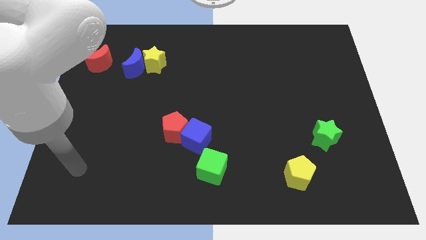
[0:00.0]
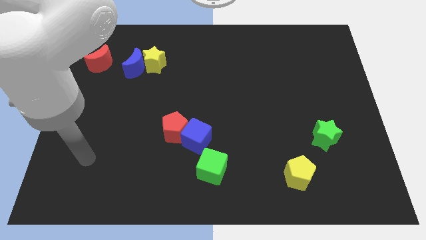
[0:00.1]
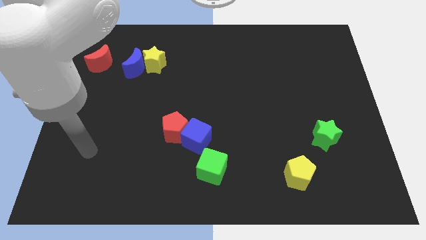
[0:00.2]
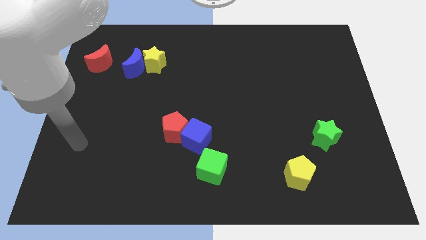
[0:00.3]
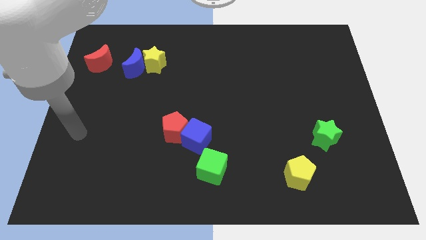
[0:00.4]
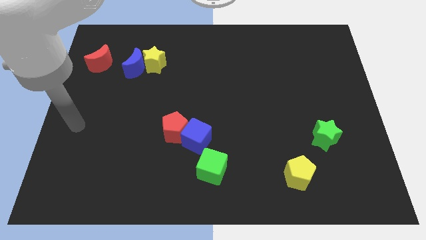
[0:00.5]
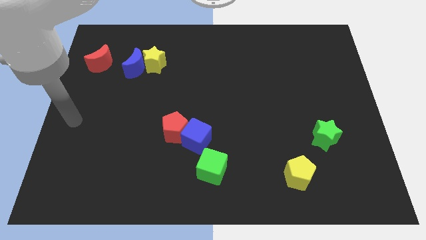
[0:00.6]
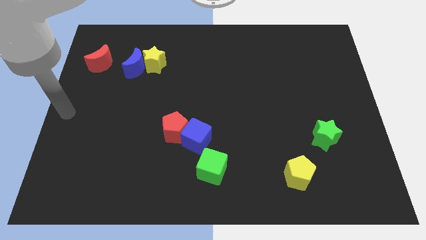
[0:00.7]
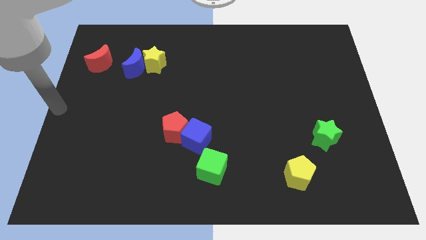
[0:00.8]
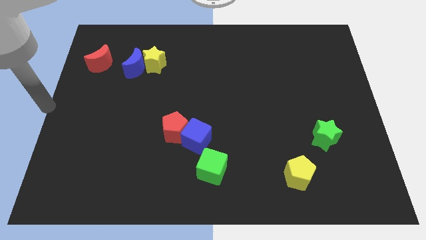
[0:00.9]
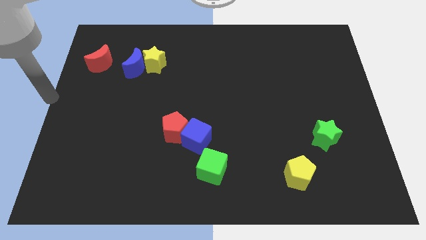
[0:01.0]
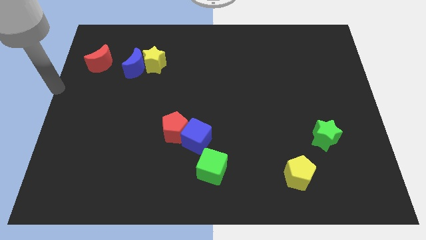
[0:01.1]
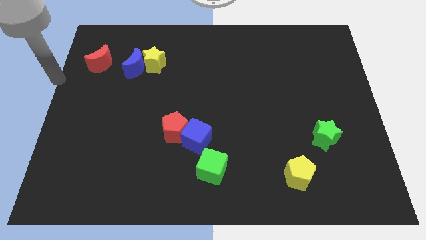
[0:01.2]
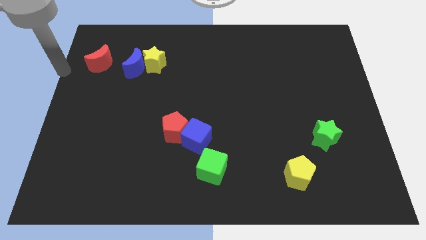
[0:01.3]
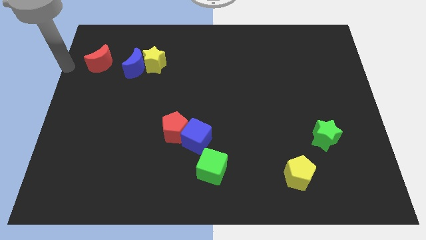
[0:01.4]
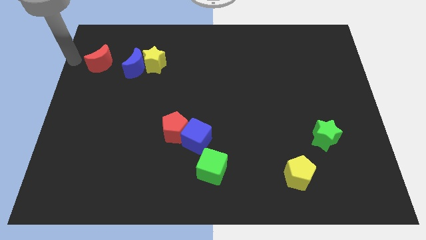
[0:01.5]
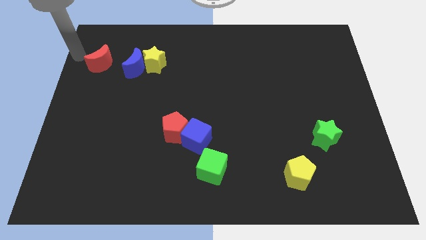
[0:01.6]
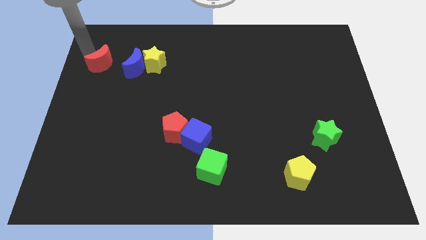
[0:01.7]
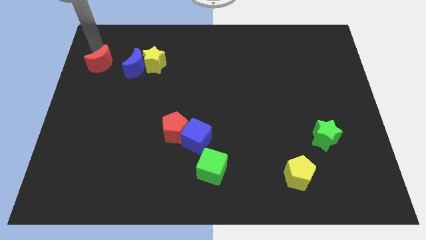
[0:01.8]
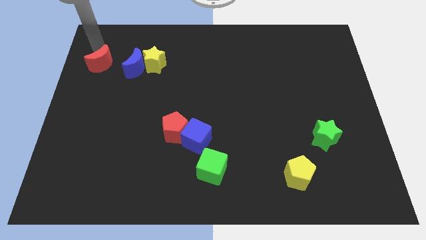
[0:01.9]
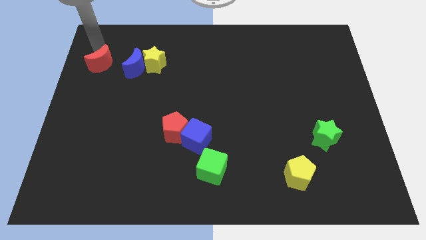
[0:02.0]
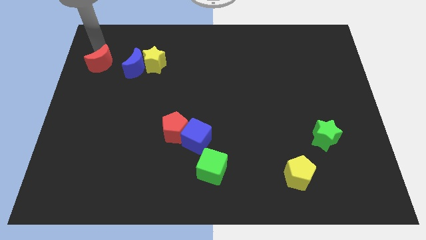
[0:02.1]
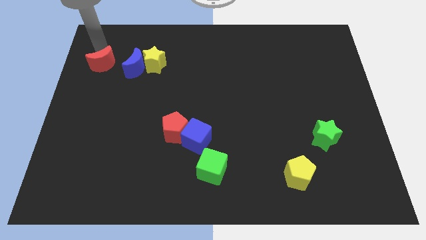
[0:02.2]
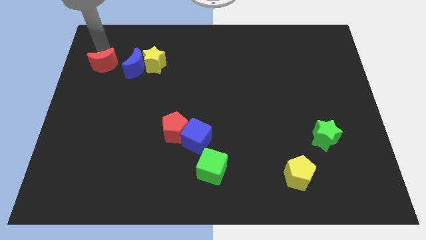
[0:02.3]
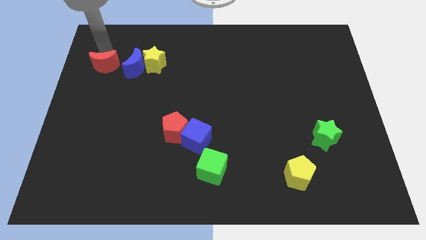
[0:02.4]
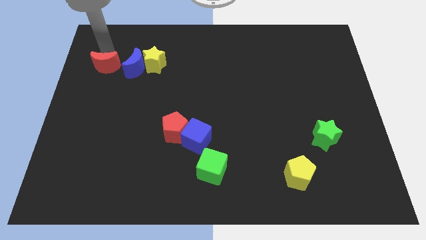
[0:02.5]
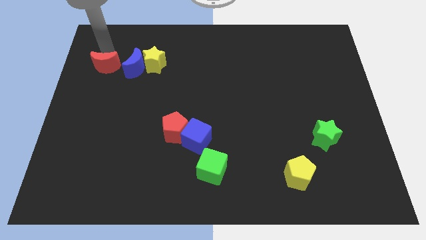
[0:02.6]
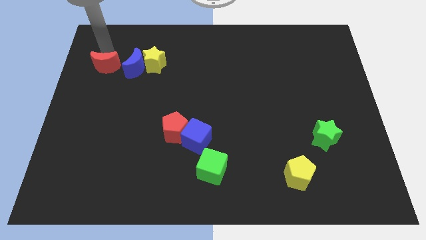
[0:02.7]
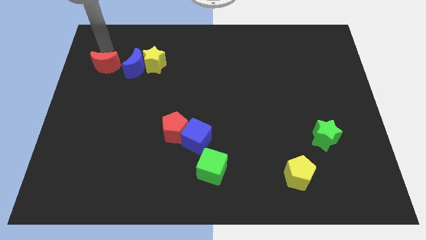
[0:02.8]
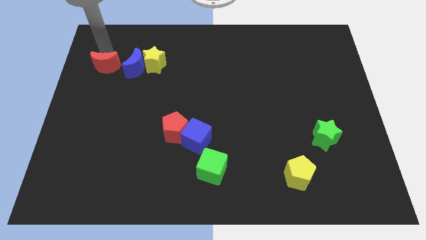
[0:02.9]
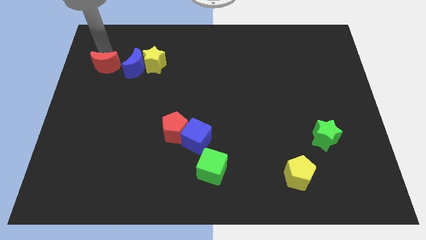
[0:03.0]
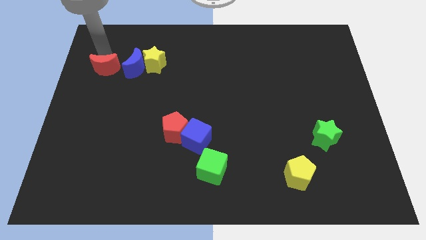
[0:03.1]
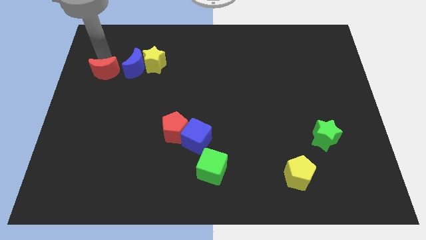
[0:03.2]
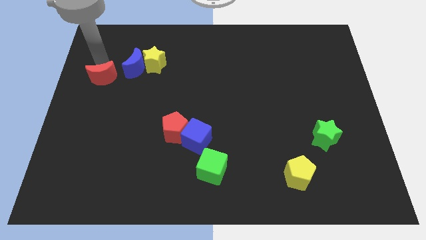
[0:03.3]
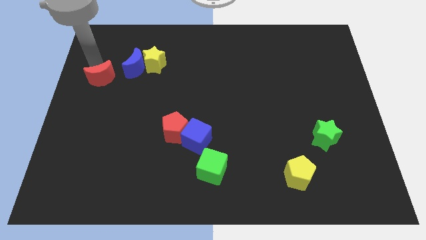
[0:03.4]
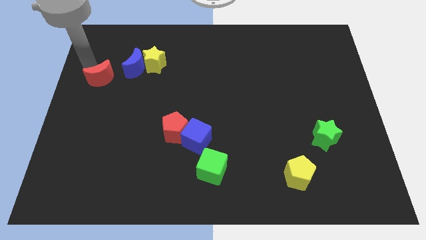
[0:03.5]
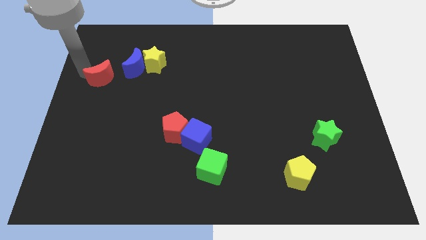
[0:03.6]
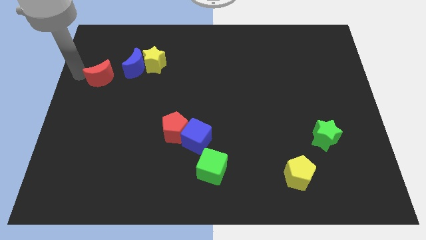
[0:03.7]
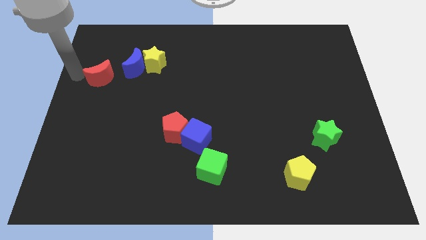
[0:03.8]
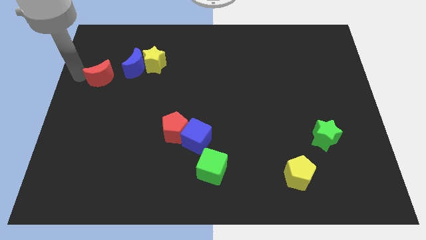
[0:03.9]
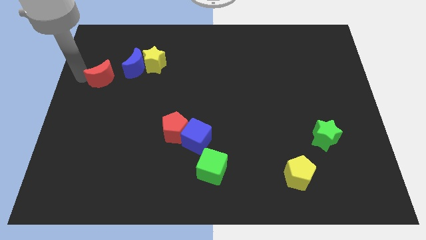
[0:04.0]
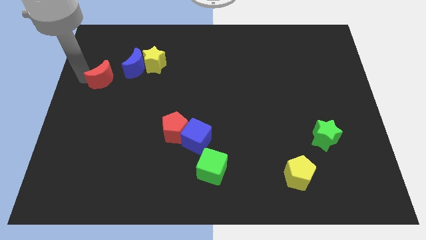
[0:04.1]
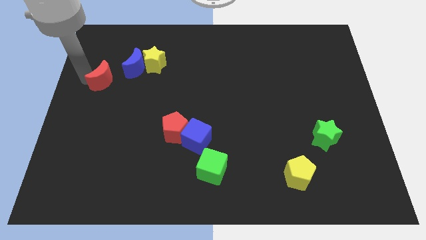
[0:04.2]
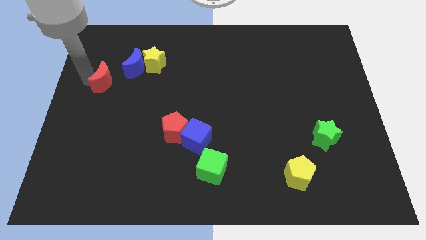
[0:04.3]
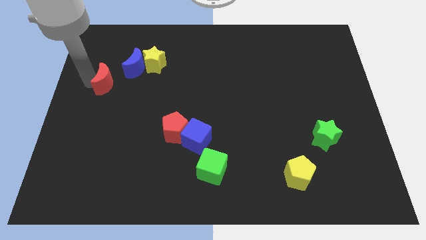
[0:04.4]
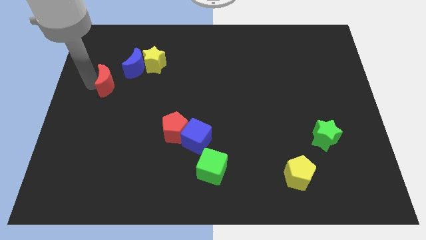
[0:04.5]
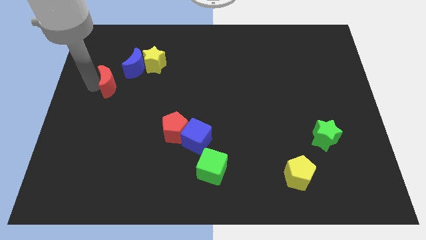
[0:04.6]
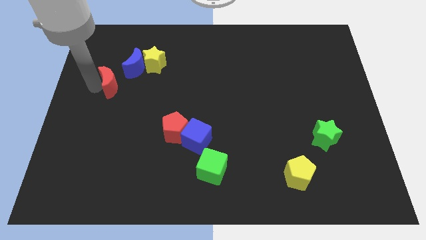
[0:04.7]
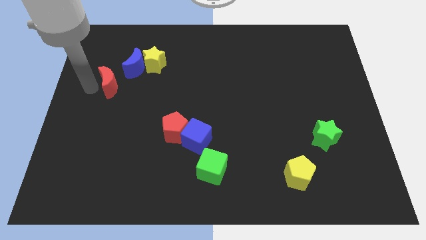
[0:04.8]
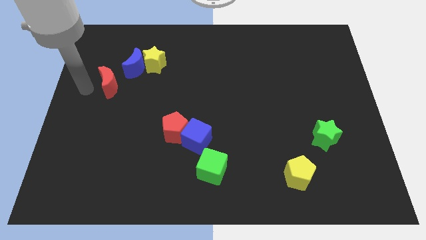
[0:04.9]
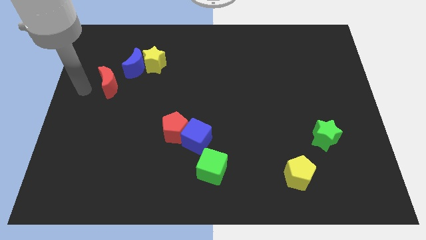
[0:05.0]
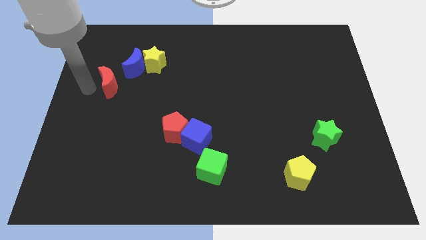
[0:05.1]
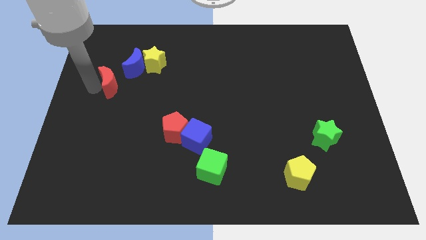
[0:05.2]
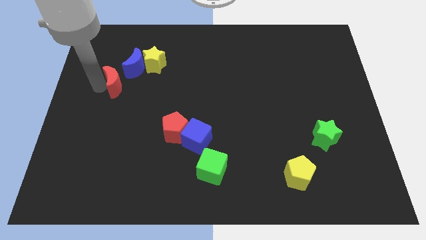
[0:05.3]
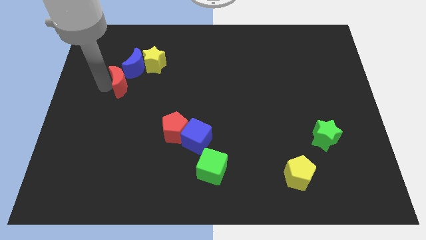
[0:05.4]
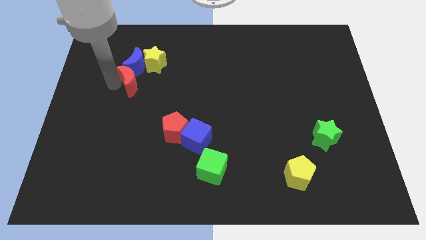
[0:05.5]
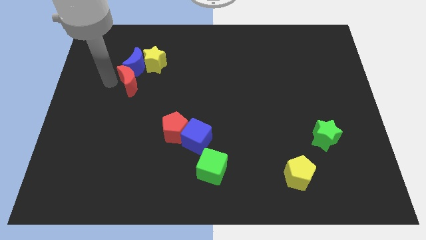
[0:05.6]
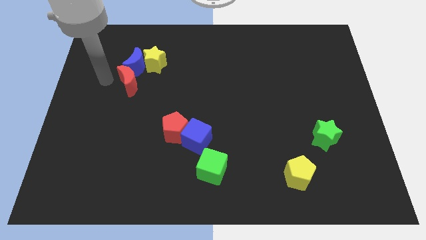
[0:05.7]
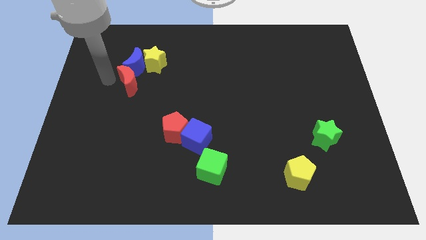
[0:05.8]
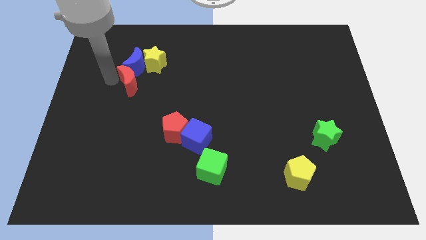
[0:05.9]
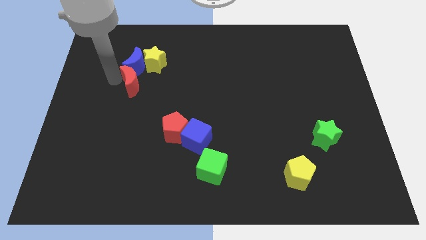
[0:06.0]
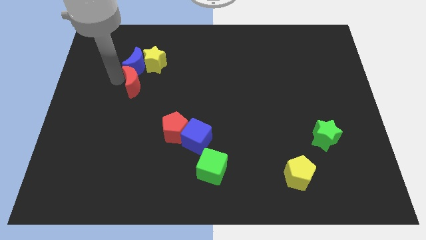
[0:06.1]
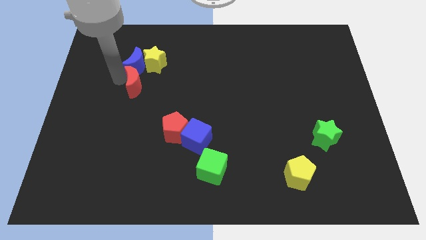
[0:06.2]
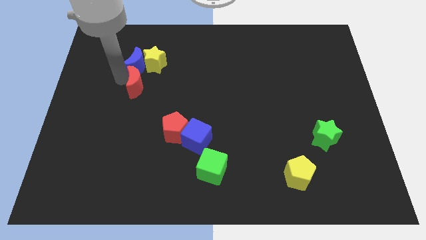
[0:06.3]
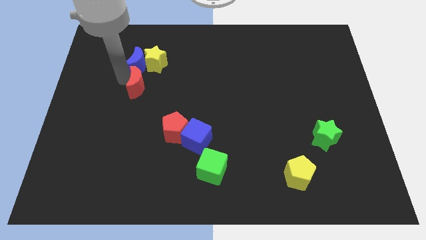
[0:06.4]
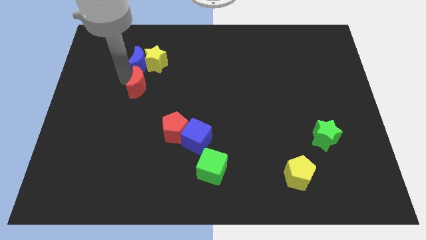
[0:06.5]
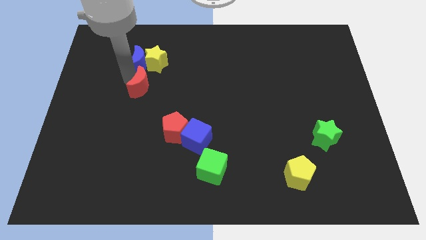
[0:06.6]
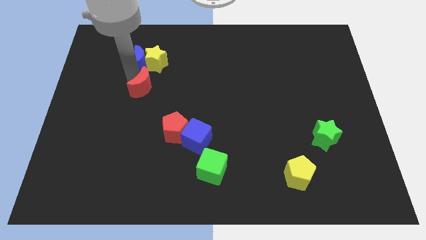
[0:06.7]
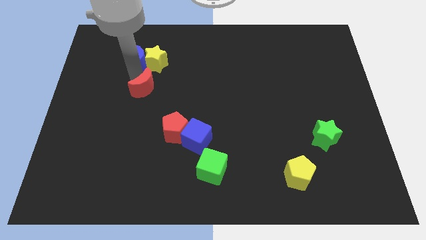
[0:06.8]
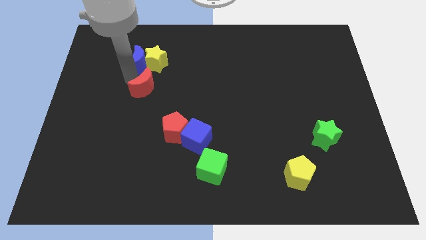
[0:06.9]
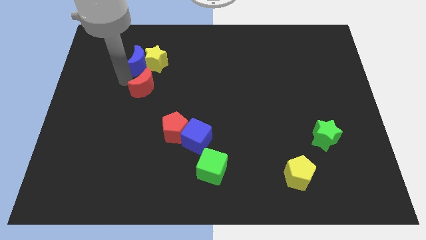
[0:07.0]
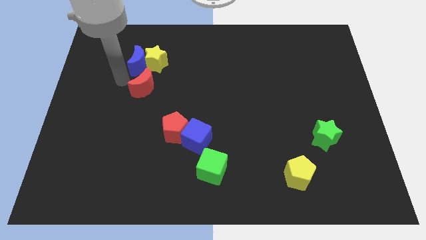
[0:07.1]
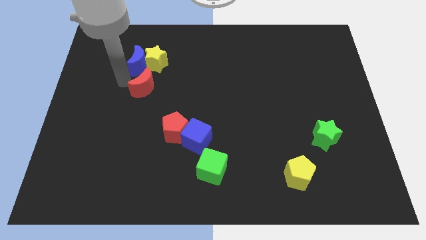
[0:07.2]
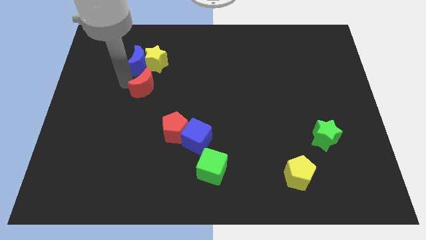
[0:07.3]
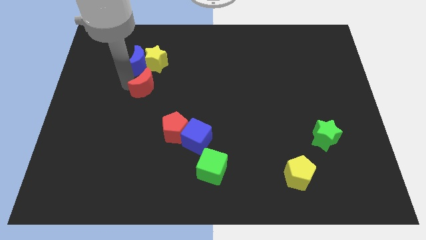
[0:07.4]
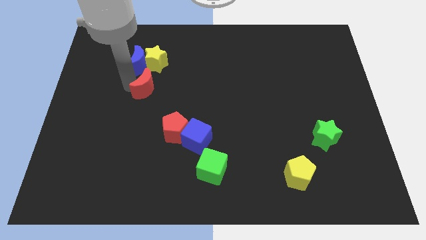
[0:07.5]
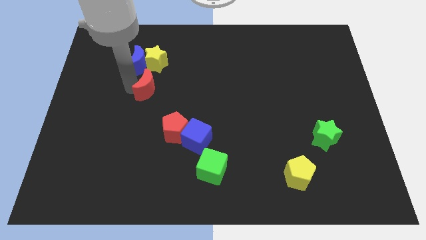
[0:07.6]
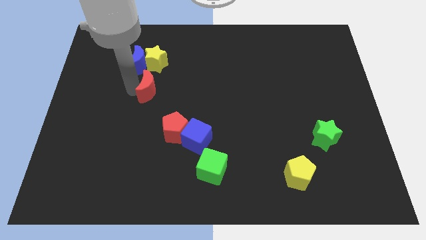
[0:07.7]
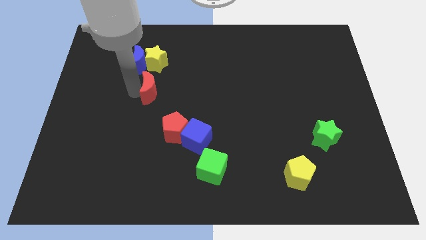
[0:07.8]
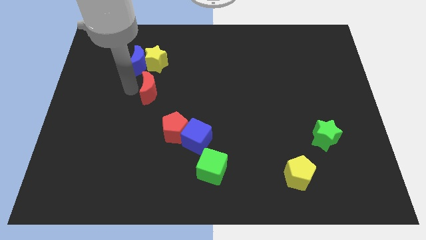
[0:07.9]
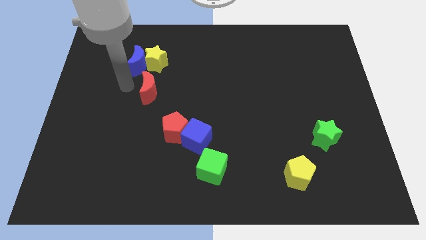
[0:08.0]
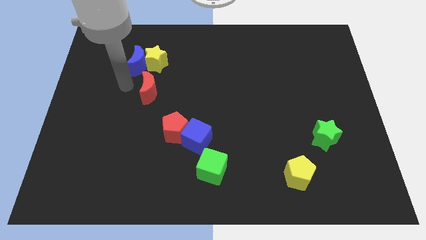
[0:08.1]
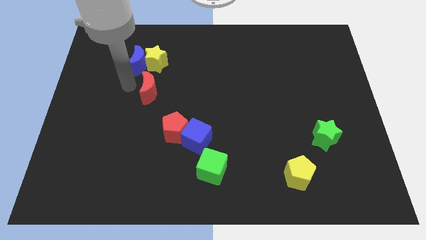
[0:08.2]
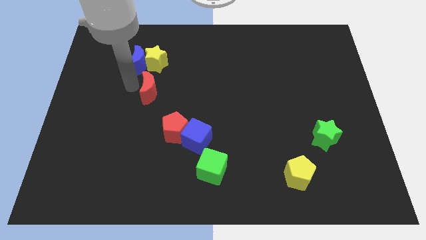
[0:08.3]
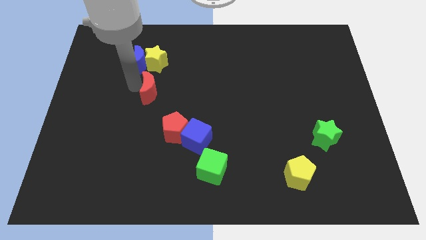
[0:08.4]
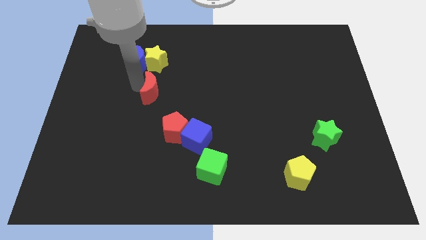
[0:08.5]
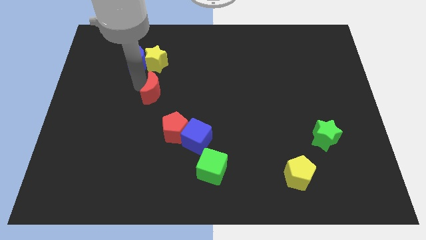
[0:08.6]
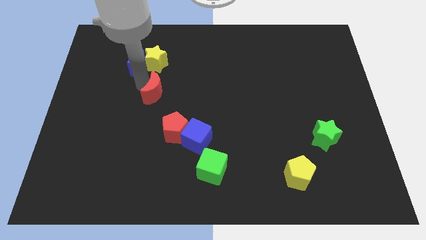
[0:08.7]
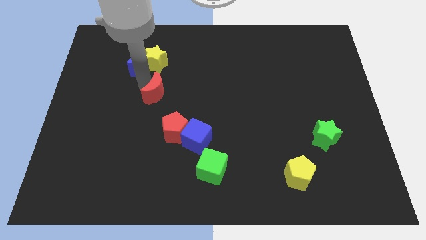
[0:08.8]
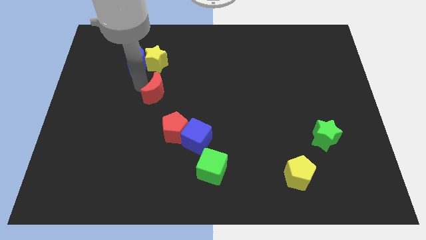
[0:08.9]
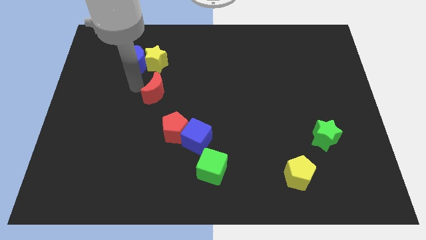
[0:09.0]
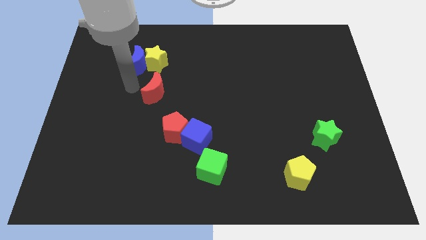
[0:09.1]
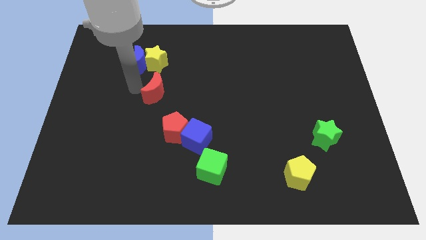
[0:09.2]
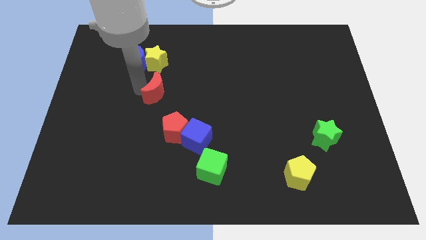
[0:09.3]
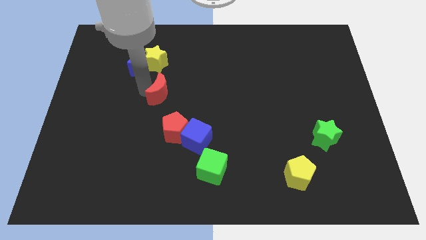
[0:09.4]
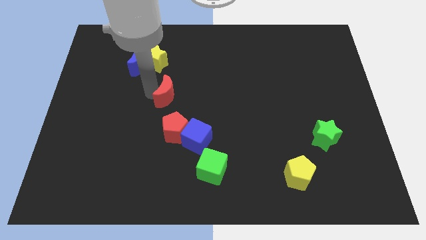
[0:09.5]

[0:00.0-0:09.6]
put the red moon to the middle of the board
